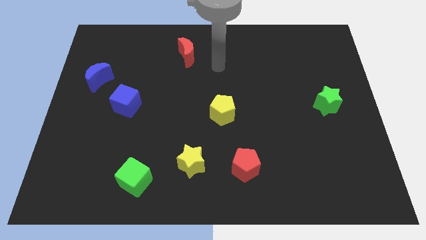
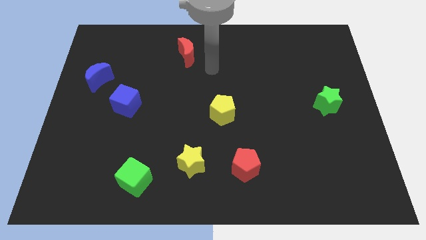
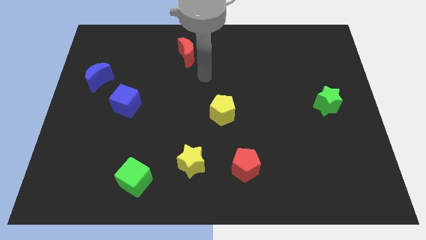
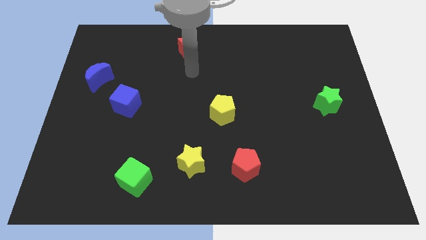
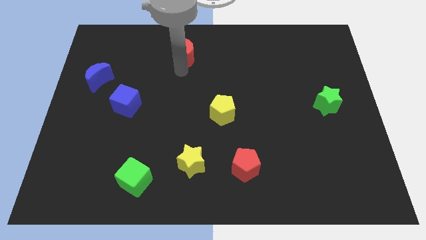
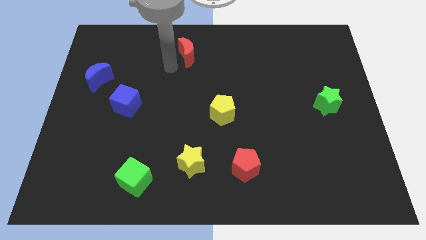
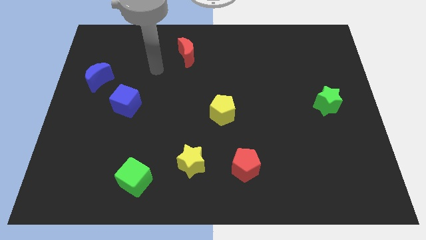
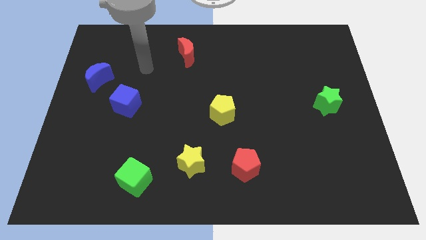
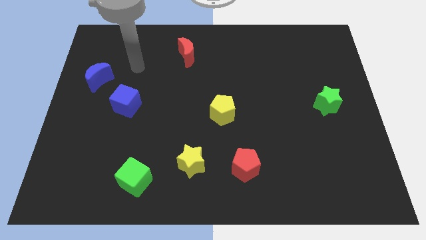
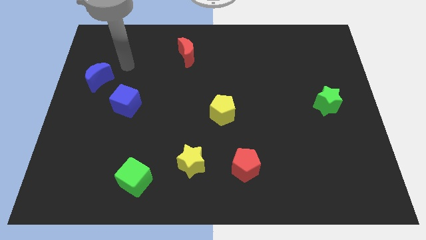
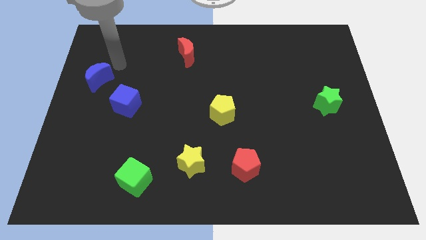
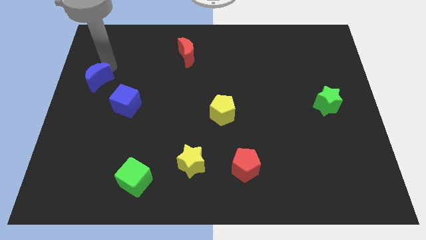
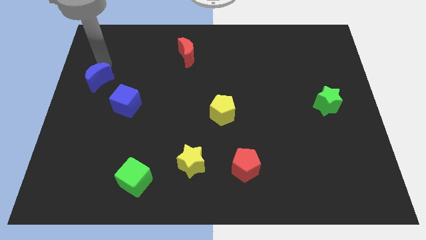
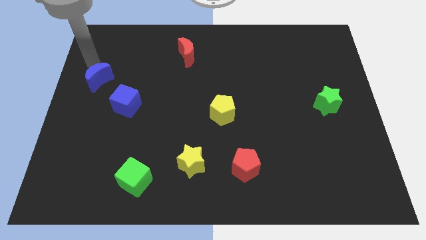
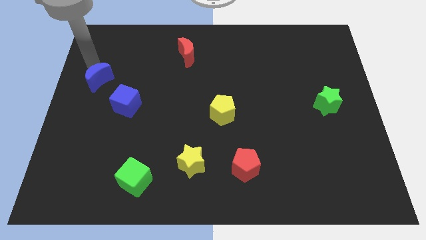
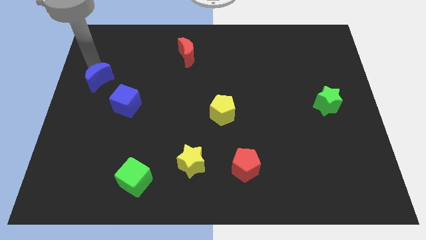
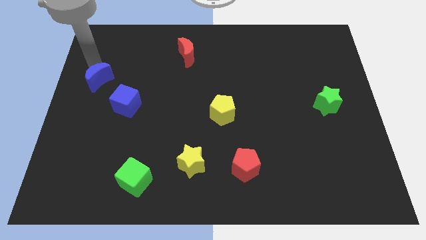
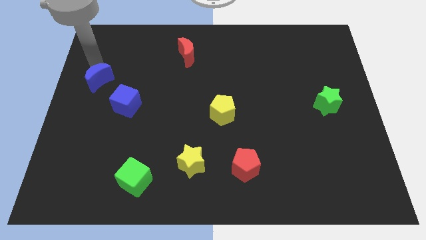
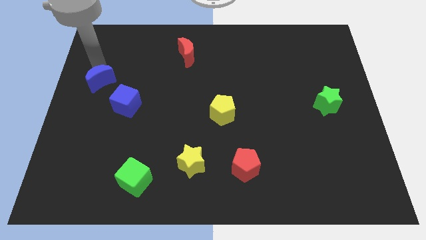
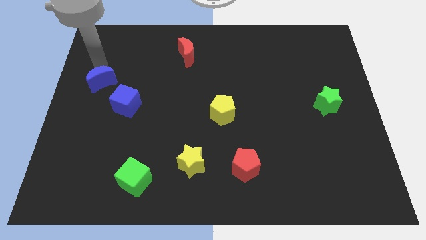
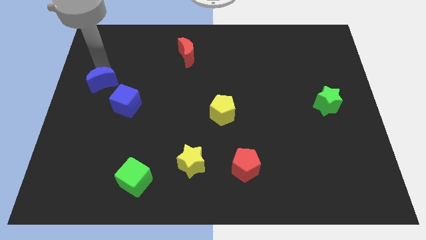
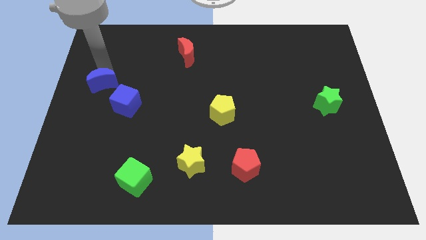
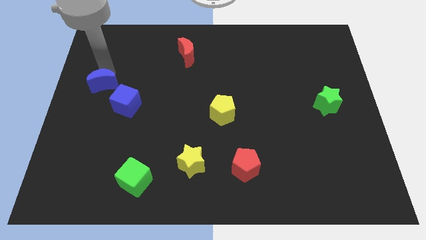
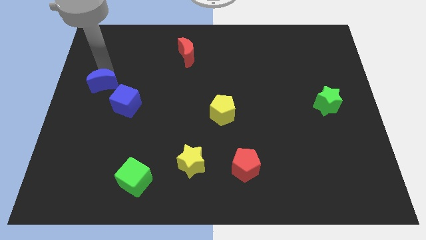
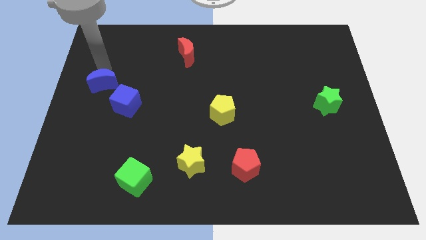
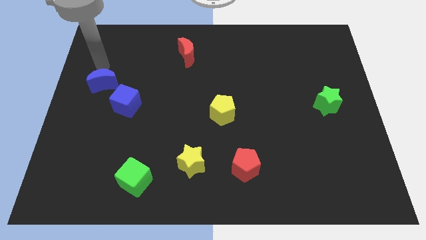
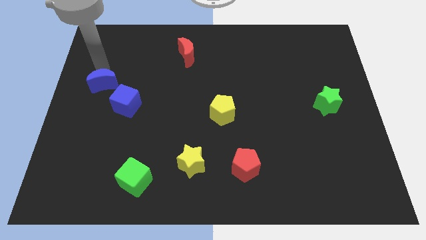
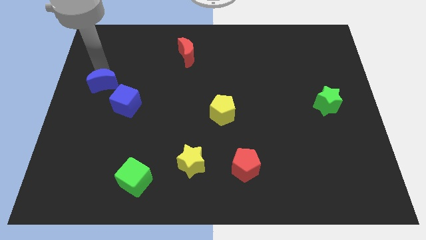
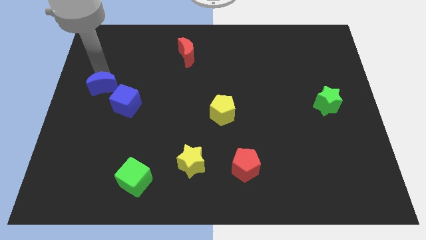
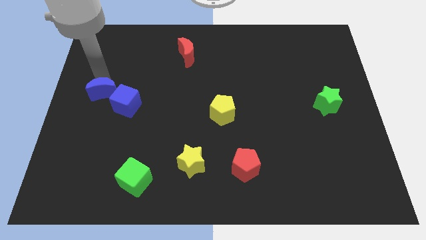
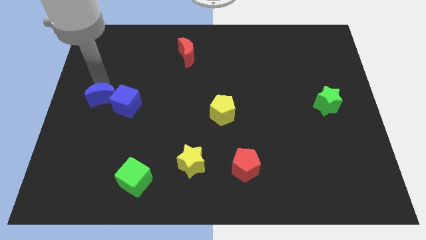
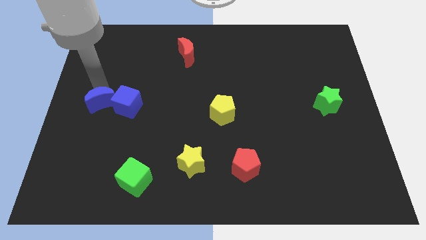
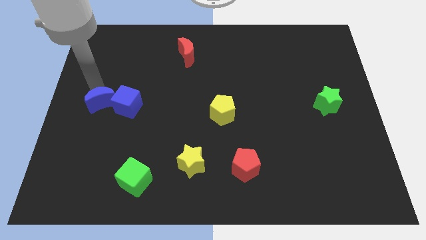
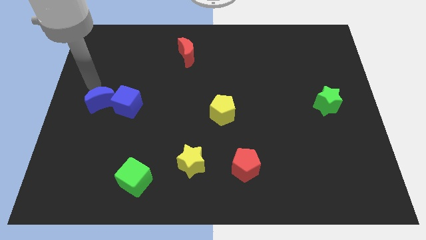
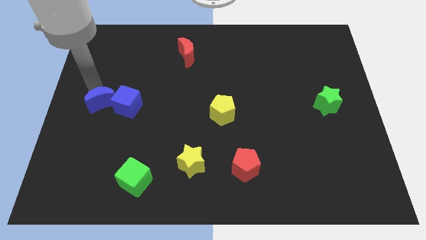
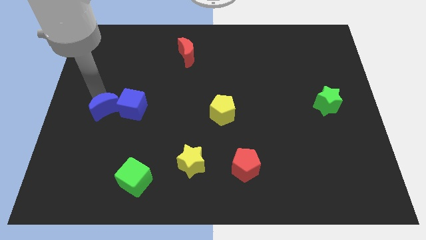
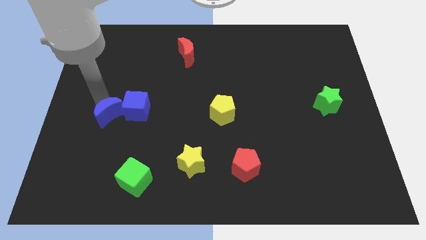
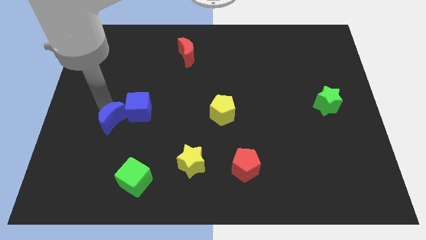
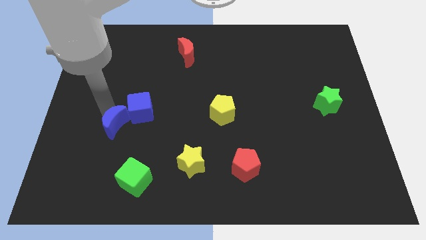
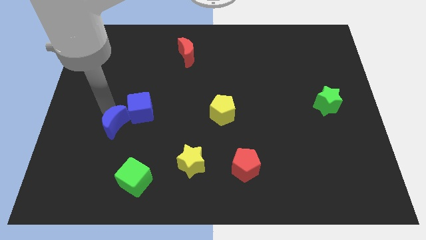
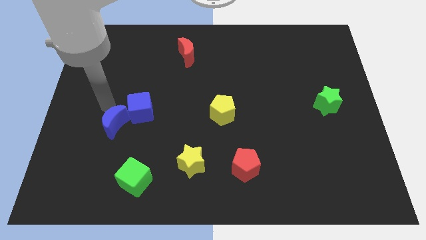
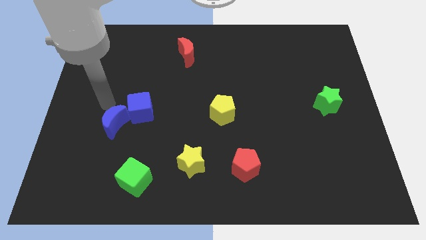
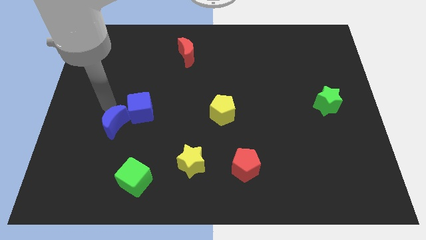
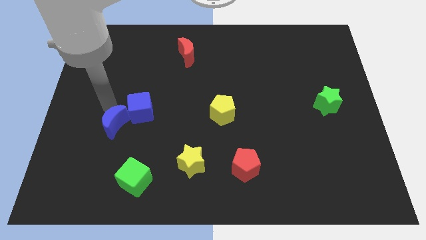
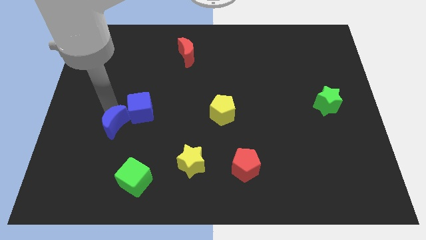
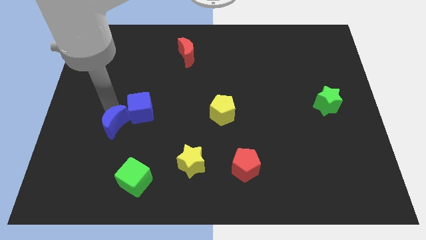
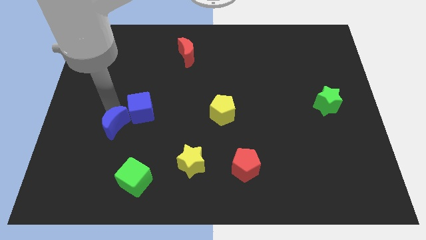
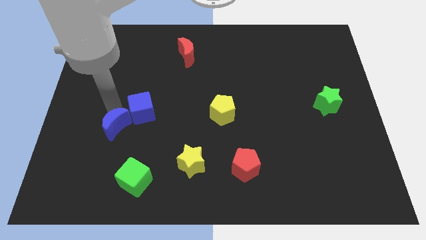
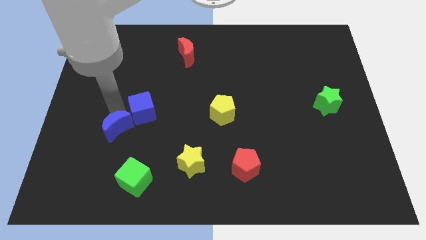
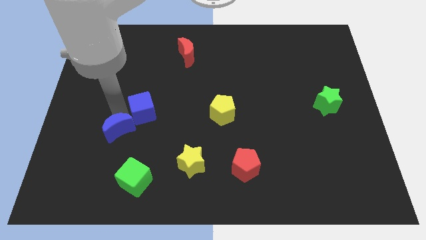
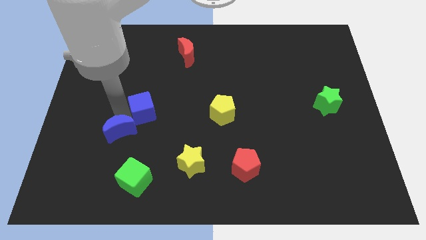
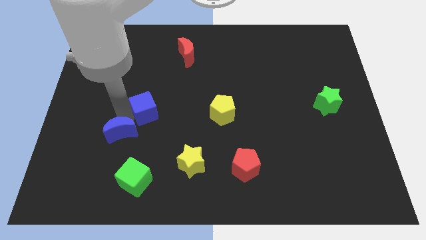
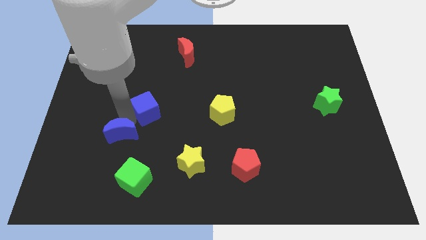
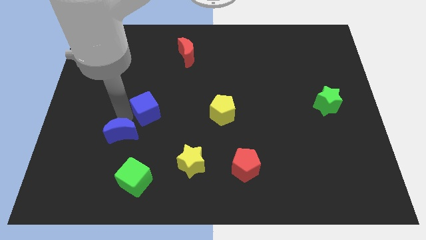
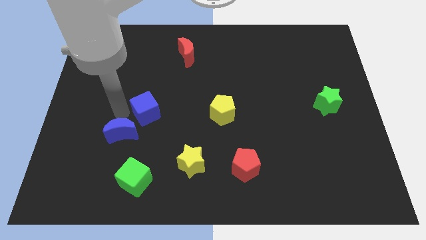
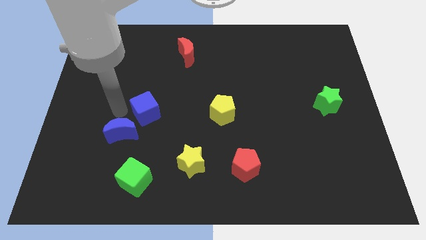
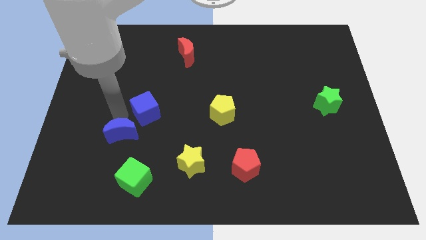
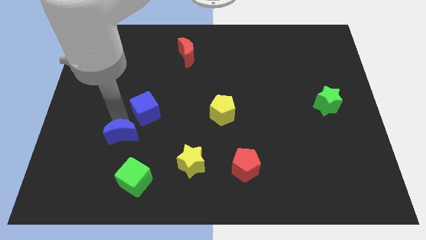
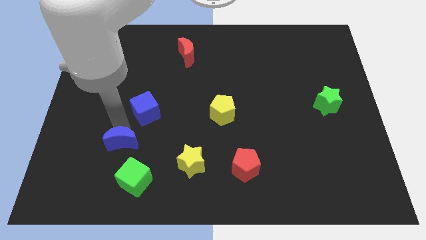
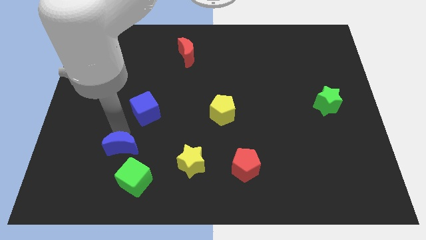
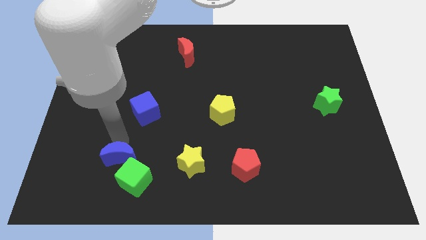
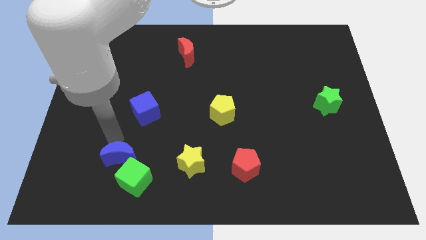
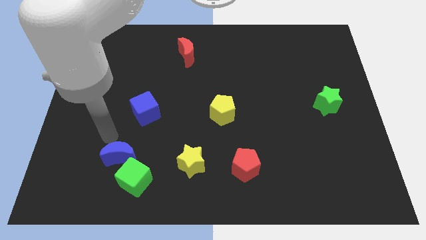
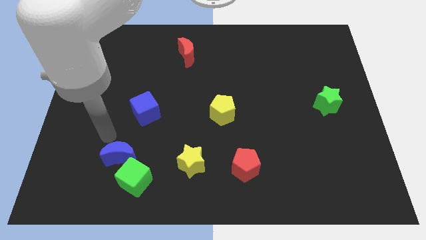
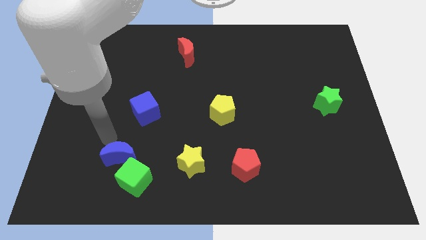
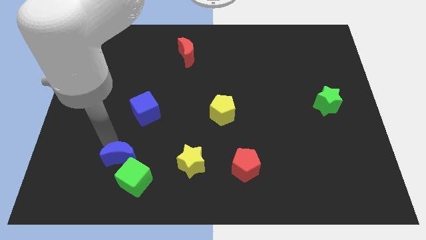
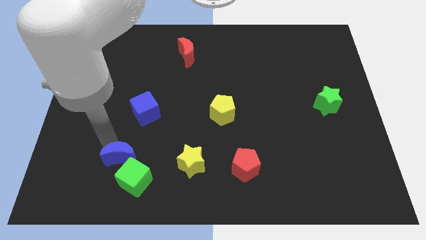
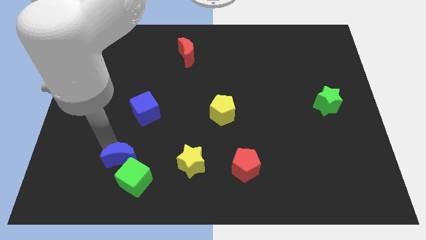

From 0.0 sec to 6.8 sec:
slide the blue moon close to the green cube

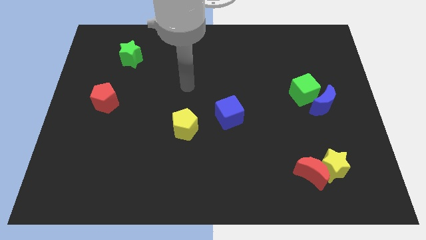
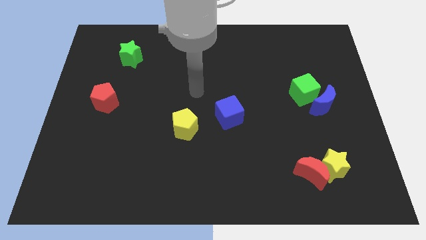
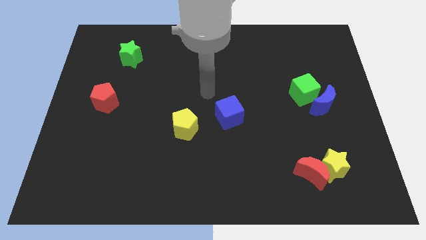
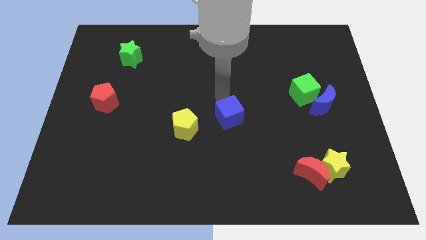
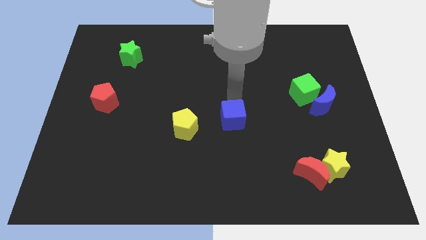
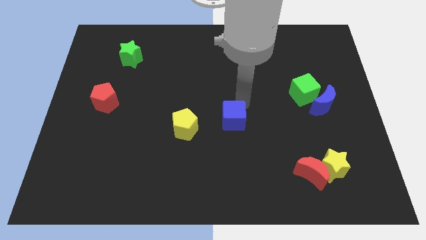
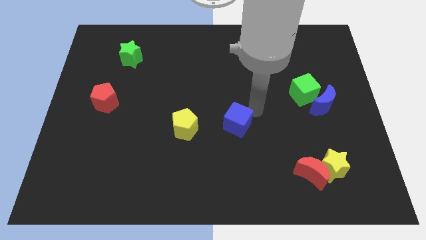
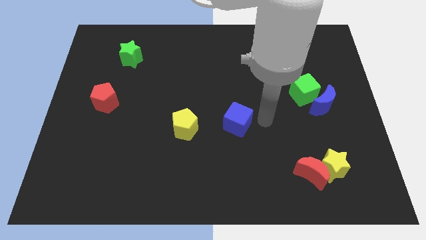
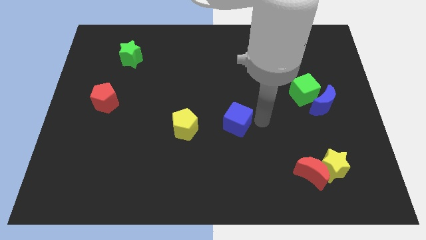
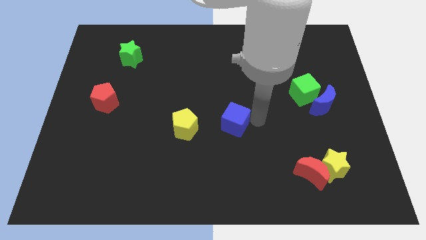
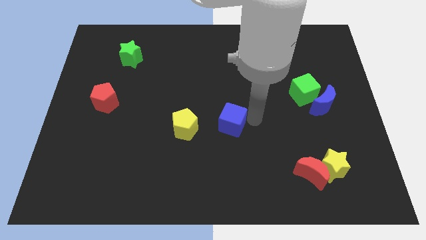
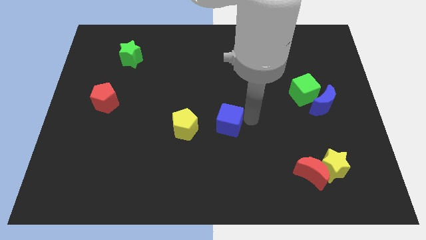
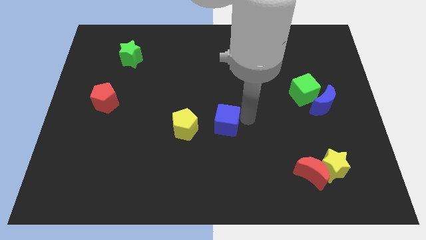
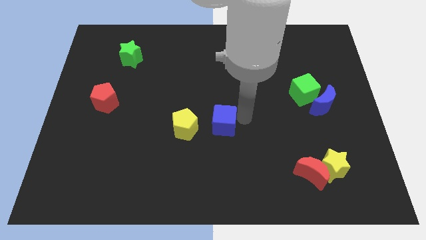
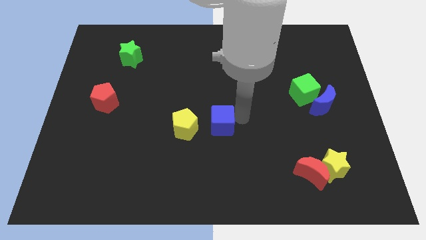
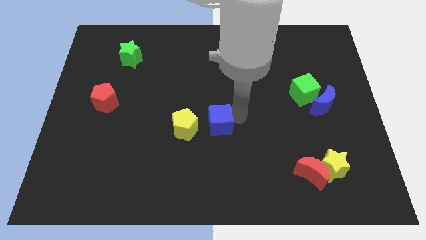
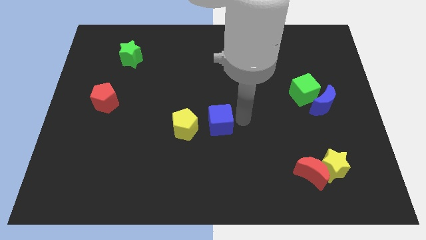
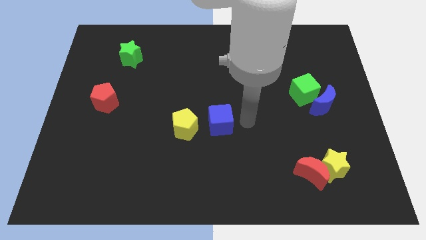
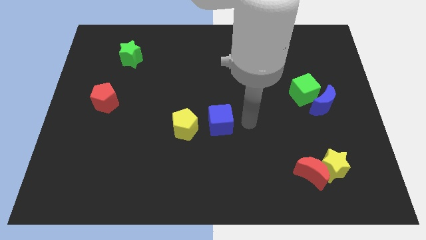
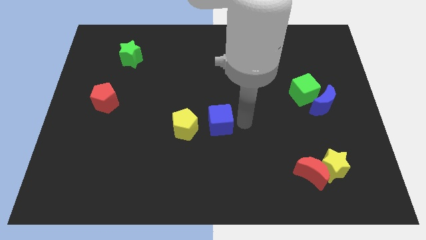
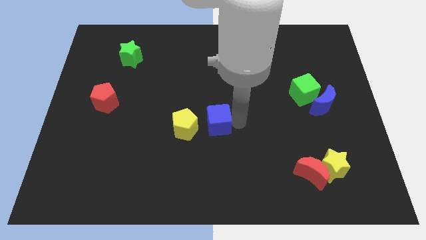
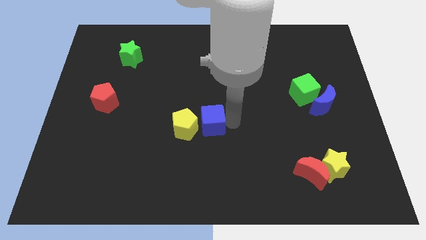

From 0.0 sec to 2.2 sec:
move the blue cube close to the yellow pentagon
